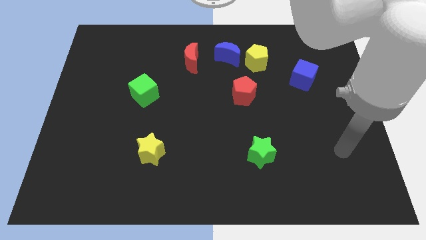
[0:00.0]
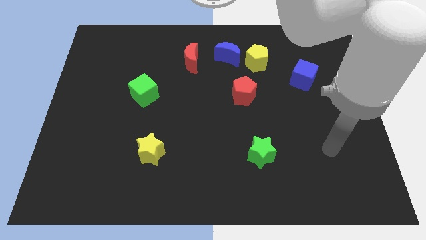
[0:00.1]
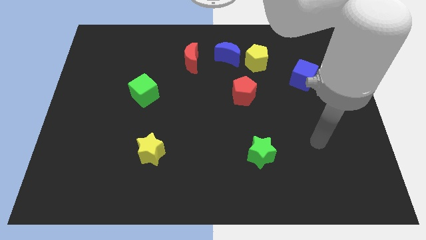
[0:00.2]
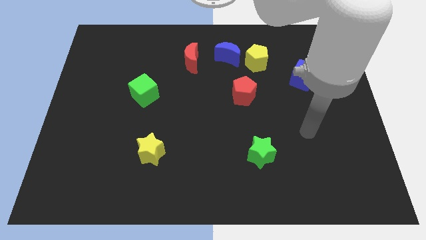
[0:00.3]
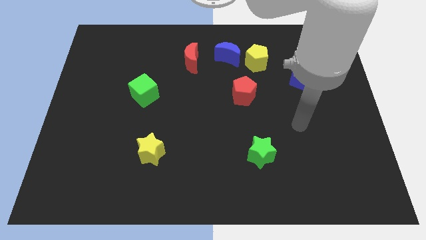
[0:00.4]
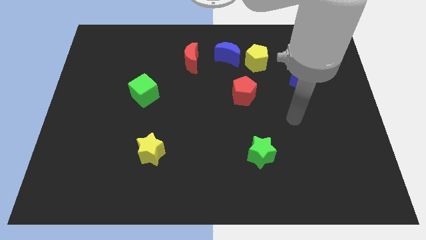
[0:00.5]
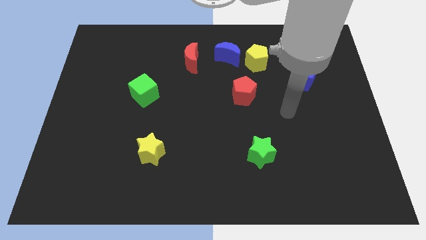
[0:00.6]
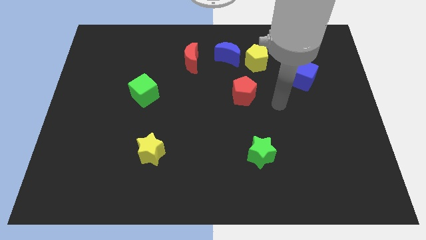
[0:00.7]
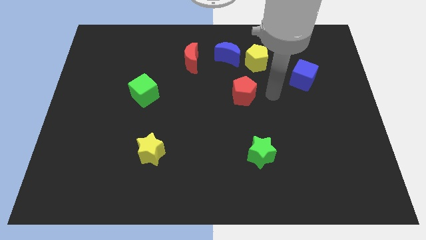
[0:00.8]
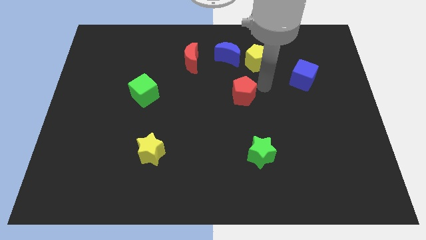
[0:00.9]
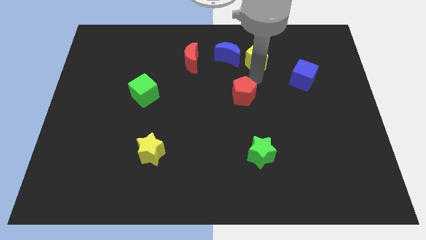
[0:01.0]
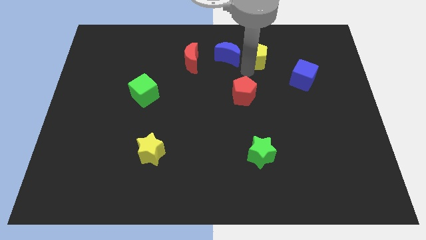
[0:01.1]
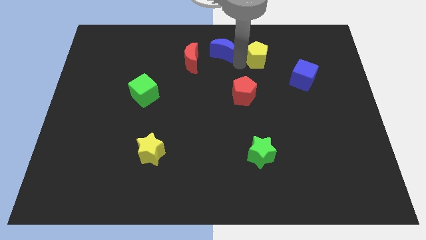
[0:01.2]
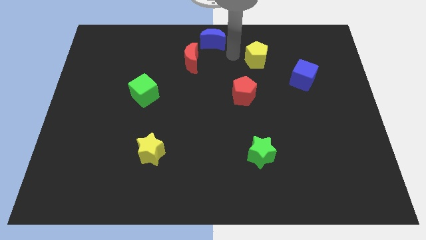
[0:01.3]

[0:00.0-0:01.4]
move the yellow pentagon away from the blue moon

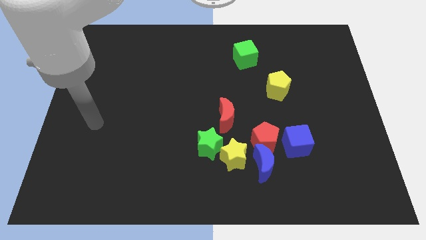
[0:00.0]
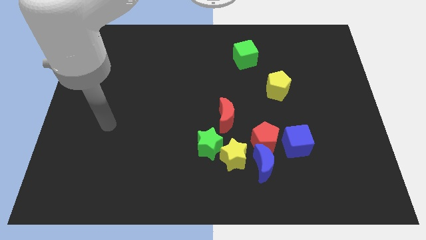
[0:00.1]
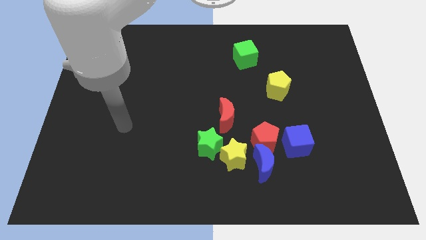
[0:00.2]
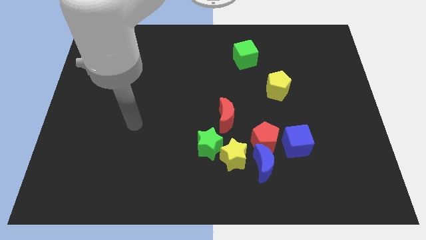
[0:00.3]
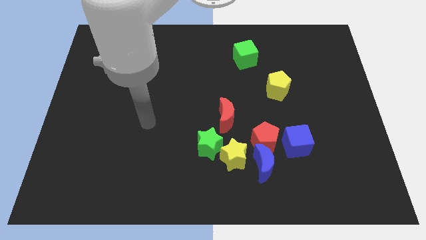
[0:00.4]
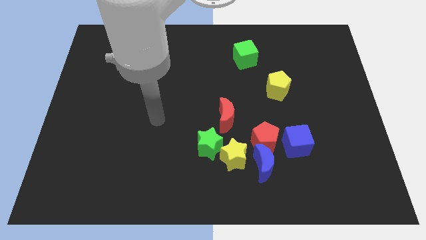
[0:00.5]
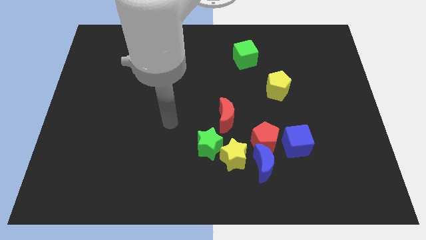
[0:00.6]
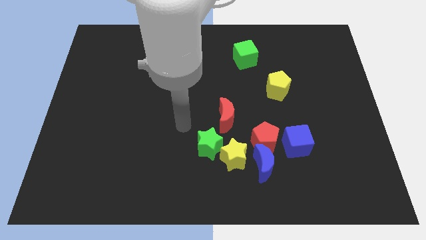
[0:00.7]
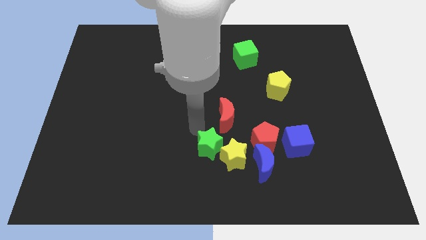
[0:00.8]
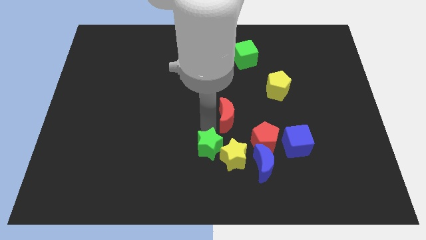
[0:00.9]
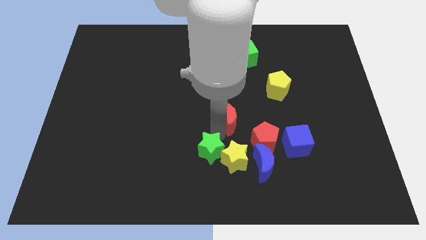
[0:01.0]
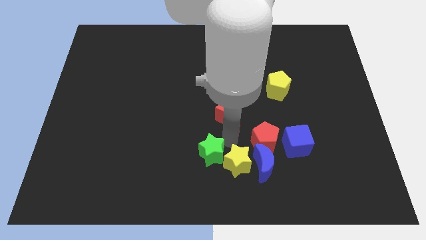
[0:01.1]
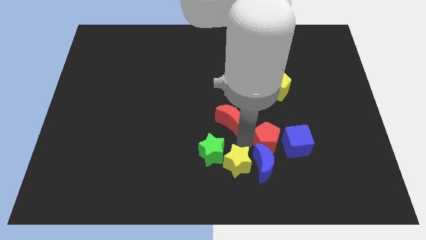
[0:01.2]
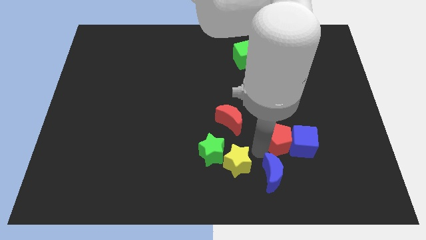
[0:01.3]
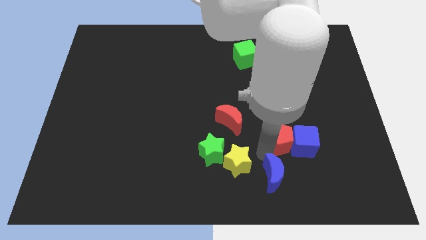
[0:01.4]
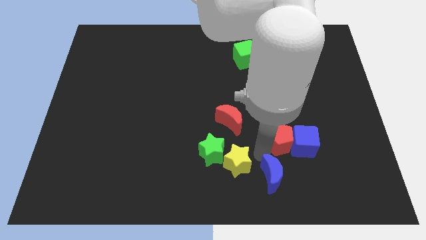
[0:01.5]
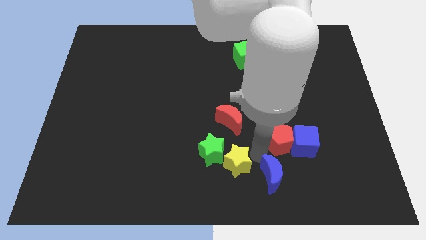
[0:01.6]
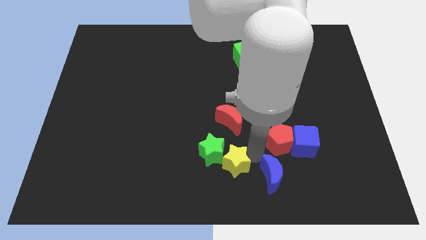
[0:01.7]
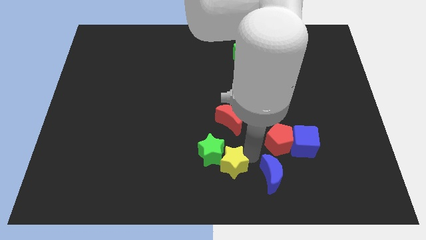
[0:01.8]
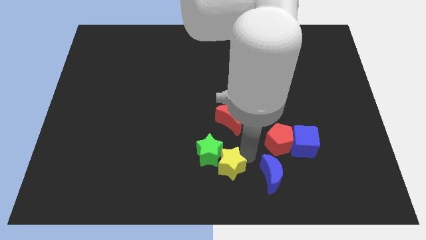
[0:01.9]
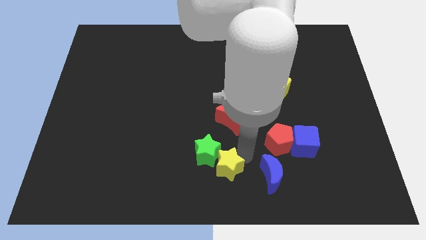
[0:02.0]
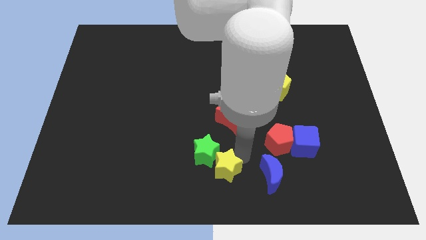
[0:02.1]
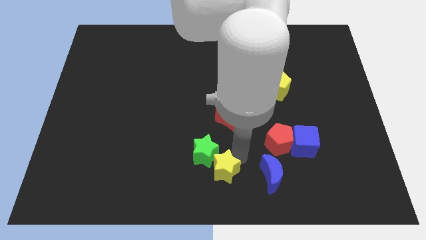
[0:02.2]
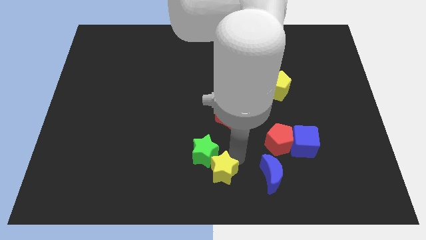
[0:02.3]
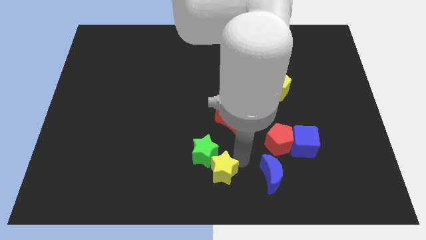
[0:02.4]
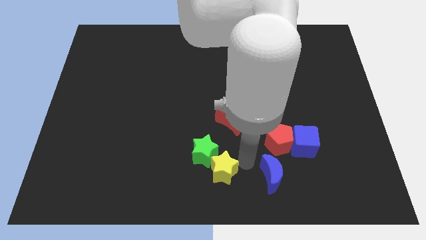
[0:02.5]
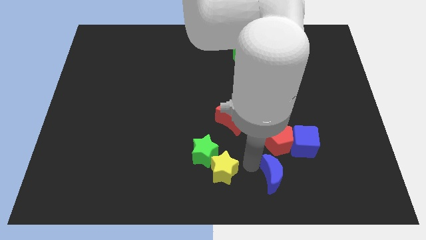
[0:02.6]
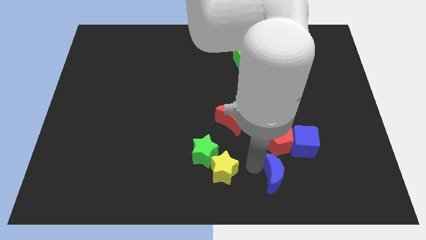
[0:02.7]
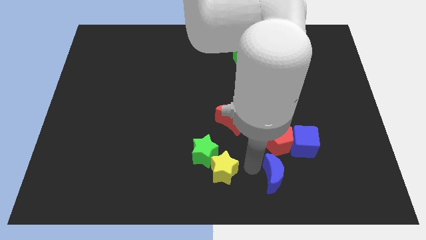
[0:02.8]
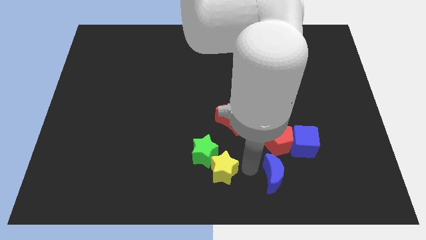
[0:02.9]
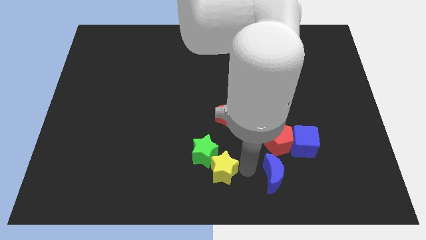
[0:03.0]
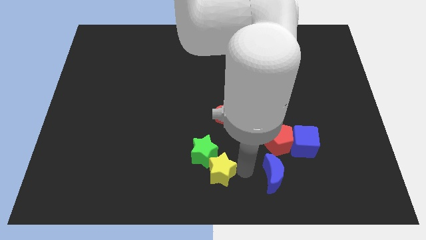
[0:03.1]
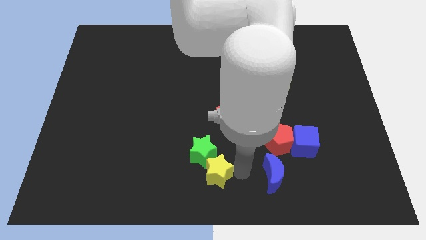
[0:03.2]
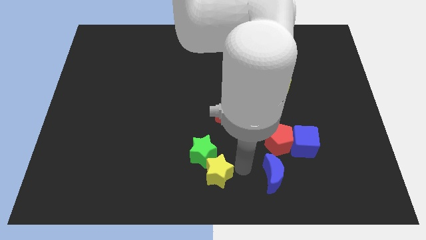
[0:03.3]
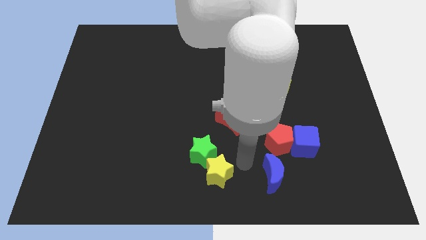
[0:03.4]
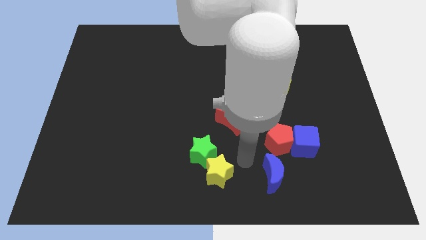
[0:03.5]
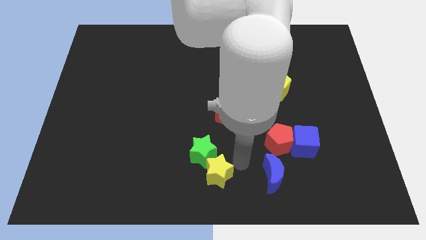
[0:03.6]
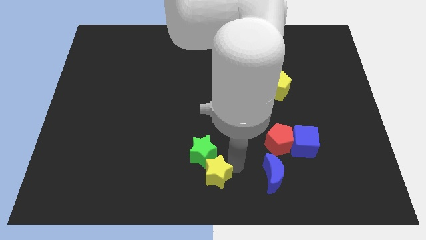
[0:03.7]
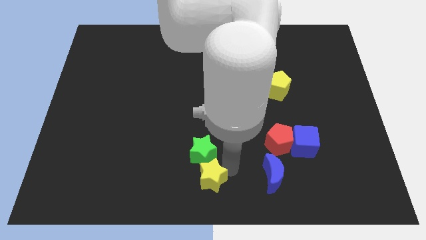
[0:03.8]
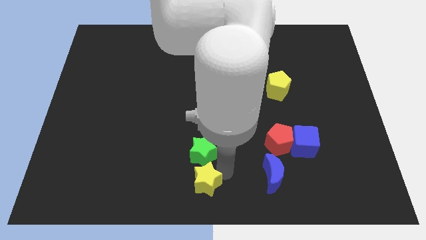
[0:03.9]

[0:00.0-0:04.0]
separate the yellow star from the green star, blue moon, and red pentagon

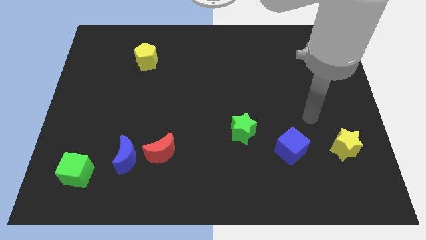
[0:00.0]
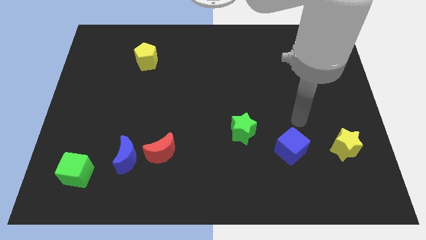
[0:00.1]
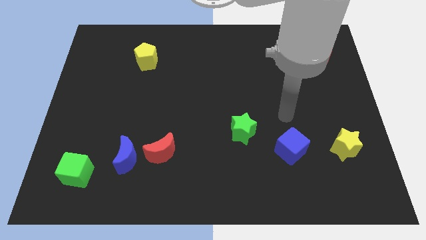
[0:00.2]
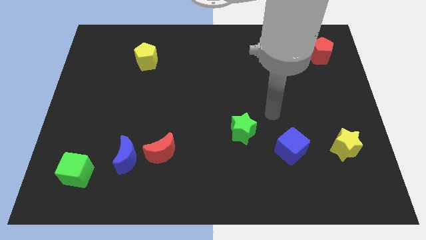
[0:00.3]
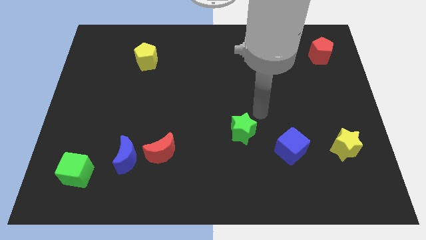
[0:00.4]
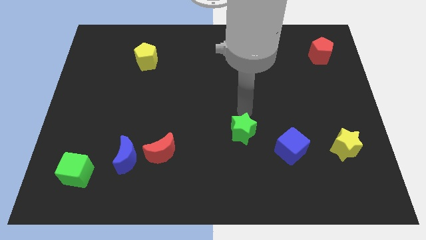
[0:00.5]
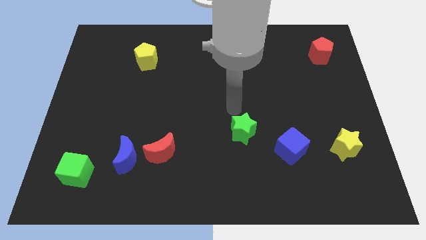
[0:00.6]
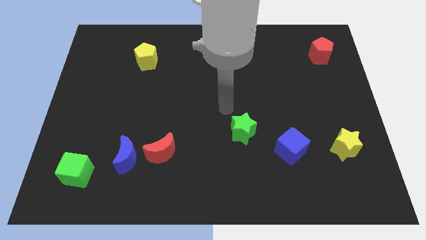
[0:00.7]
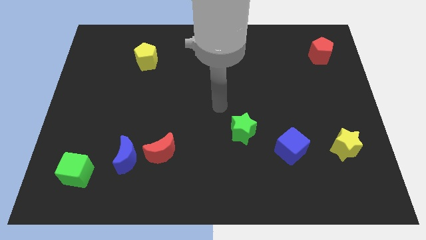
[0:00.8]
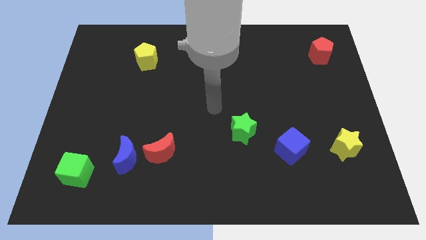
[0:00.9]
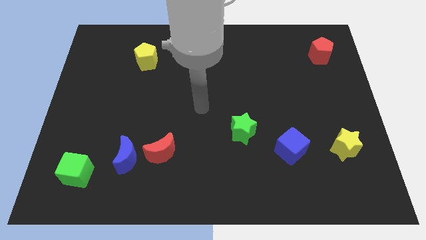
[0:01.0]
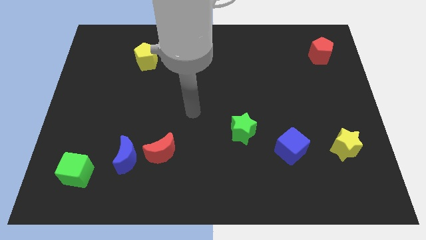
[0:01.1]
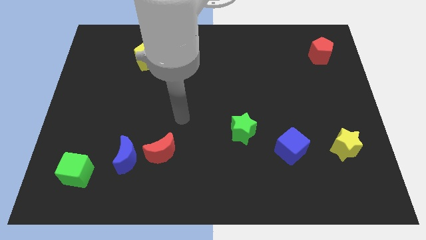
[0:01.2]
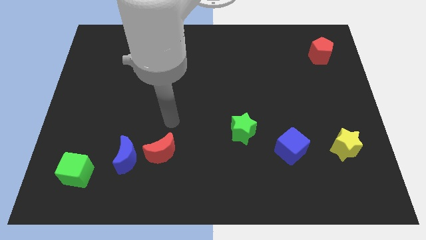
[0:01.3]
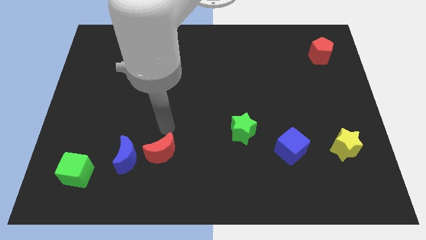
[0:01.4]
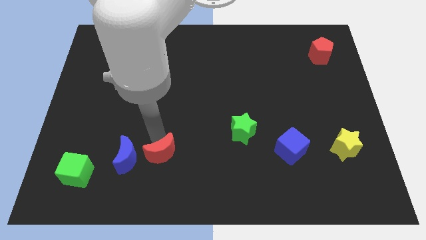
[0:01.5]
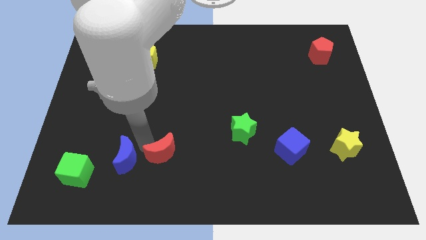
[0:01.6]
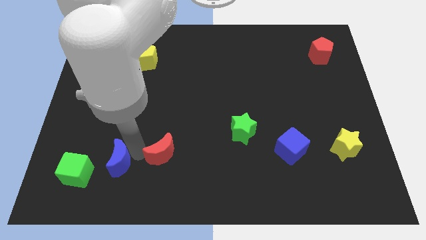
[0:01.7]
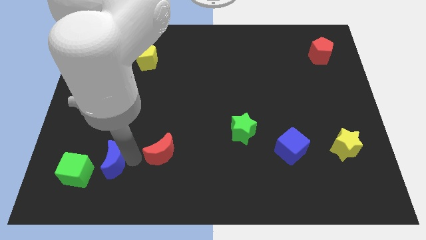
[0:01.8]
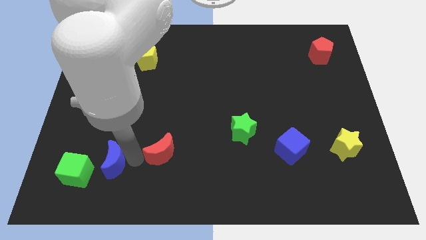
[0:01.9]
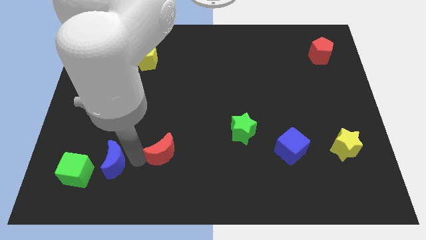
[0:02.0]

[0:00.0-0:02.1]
move the red moon away from the blue moon

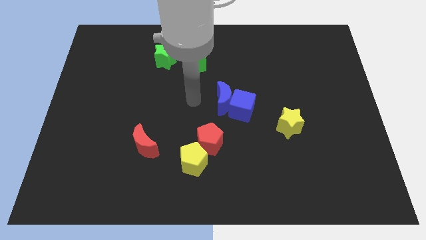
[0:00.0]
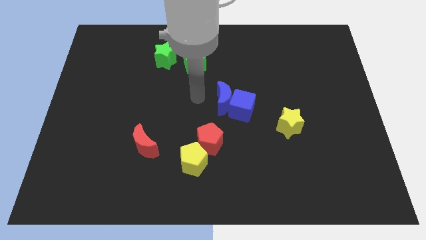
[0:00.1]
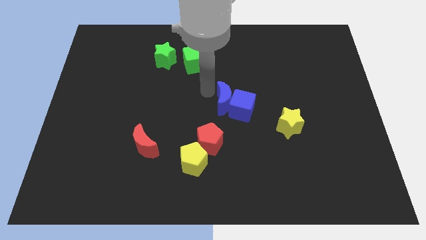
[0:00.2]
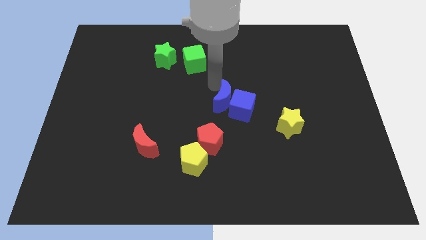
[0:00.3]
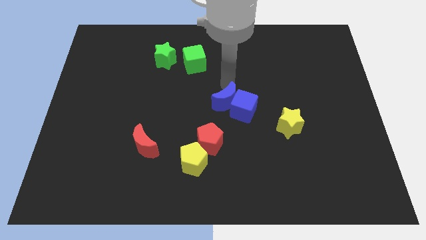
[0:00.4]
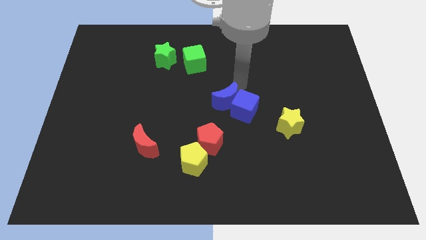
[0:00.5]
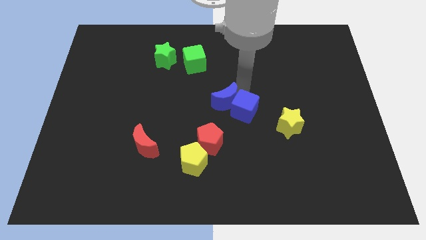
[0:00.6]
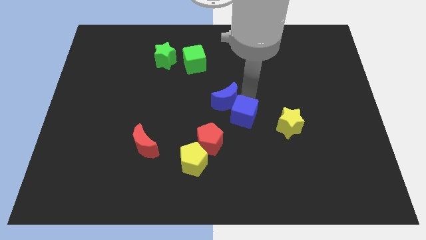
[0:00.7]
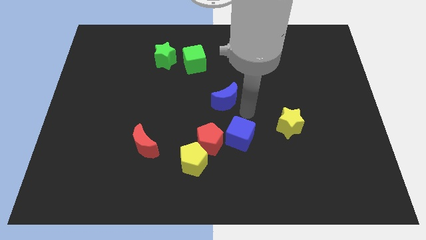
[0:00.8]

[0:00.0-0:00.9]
pull the blue moon apart from the blue cube

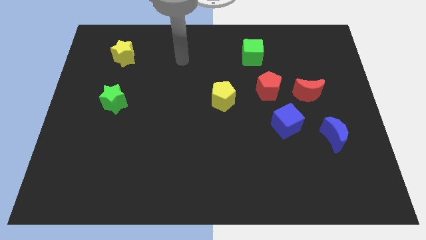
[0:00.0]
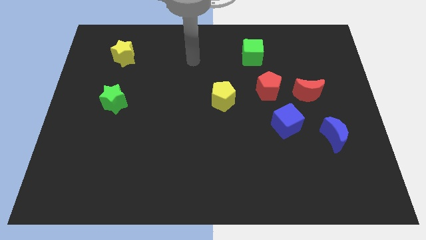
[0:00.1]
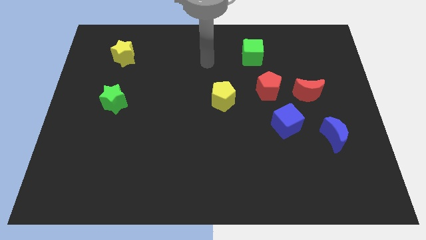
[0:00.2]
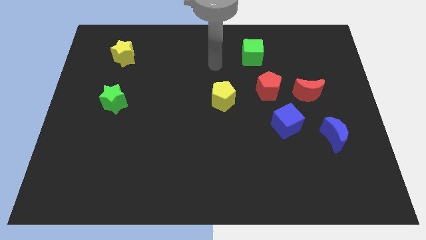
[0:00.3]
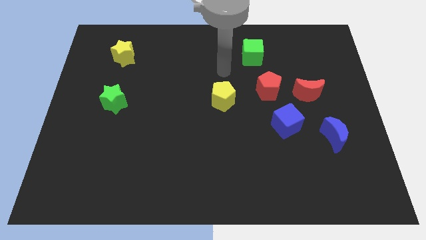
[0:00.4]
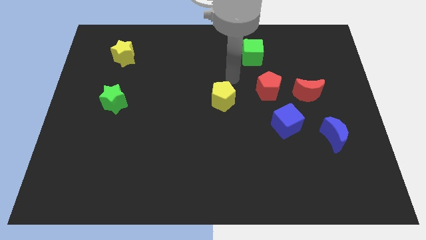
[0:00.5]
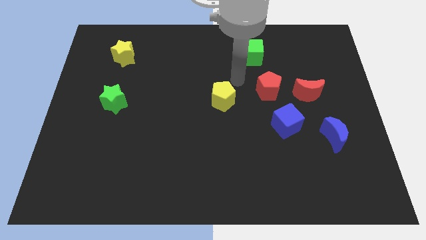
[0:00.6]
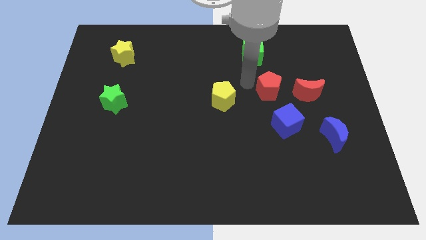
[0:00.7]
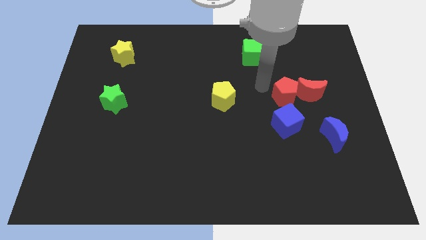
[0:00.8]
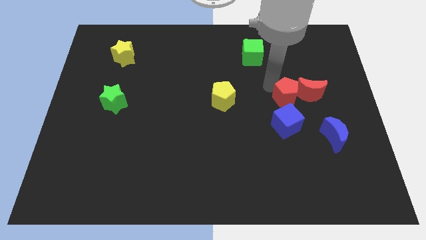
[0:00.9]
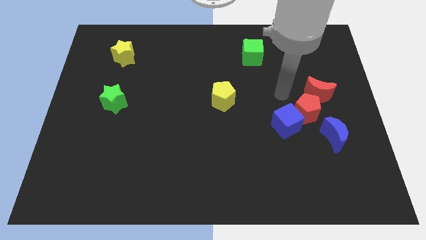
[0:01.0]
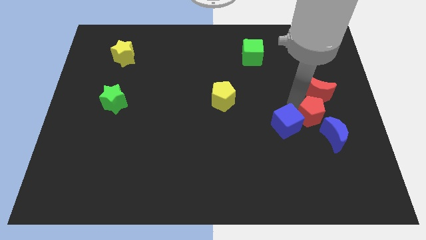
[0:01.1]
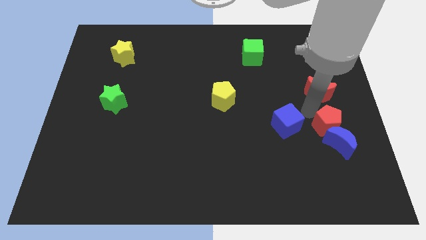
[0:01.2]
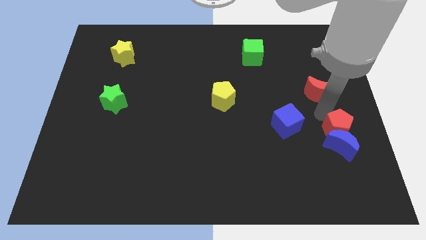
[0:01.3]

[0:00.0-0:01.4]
move the red moon away from the red pentagon
